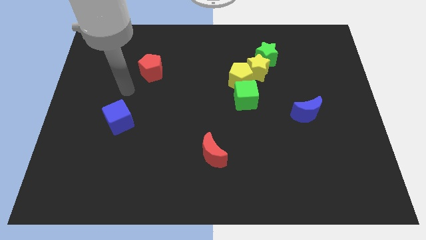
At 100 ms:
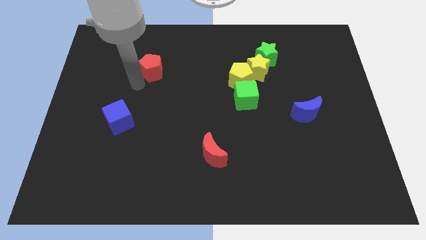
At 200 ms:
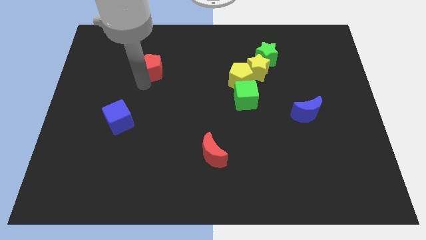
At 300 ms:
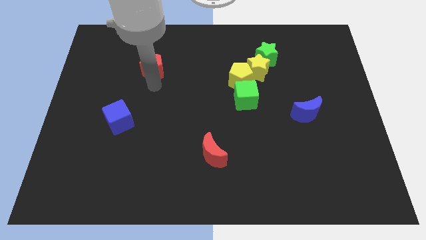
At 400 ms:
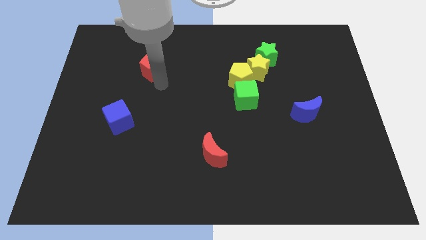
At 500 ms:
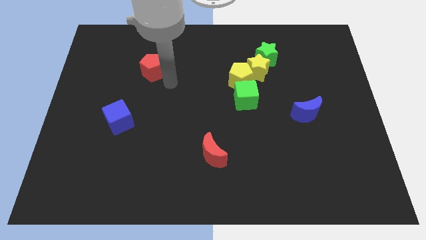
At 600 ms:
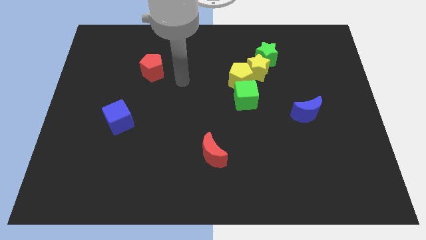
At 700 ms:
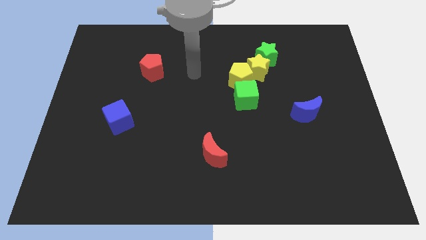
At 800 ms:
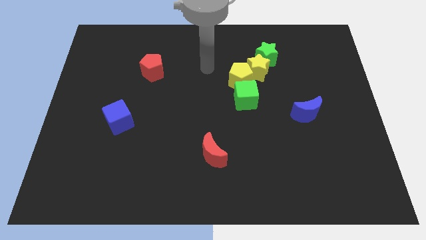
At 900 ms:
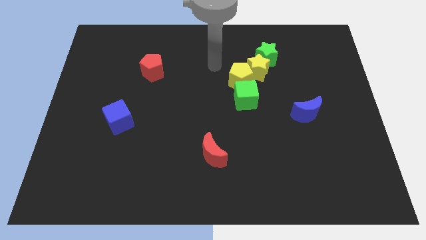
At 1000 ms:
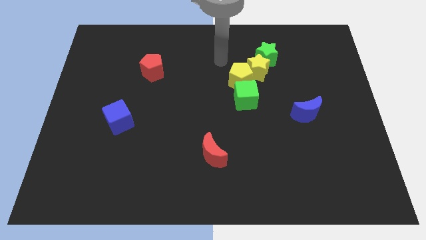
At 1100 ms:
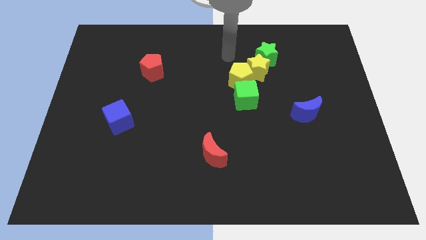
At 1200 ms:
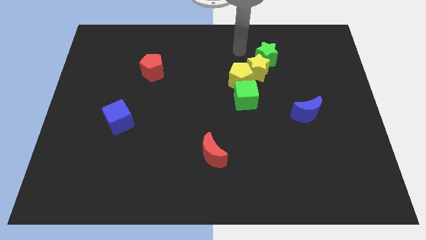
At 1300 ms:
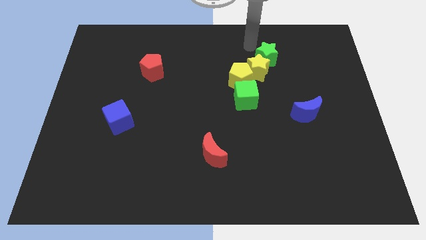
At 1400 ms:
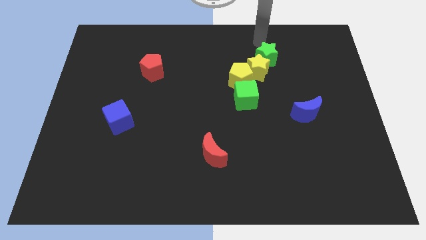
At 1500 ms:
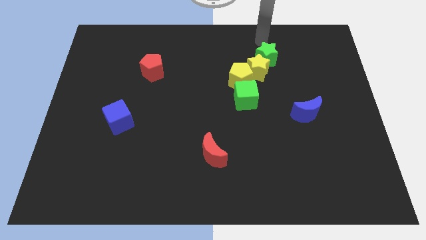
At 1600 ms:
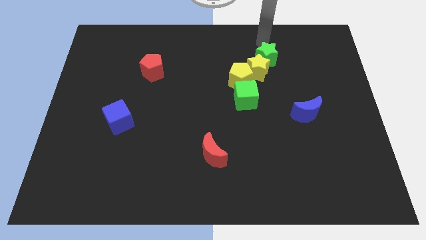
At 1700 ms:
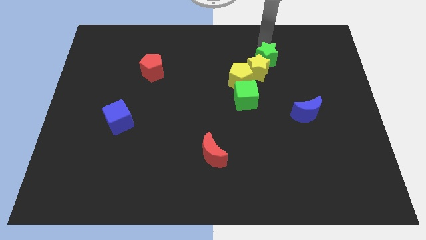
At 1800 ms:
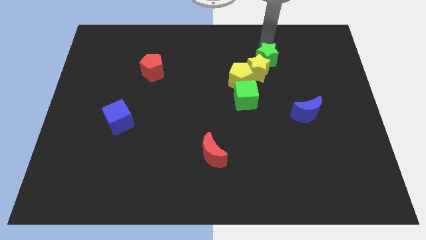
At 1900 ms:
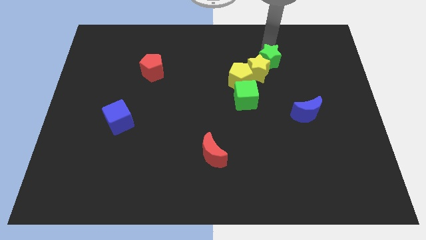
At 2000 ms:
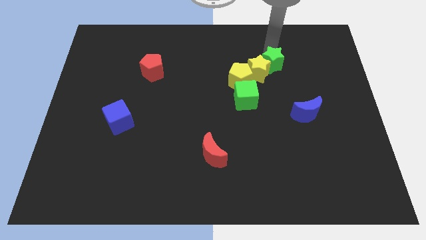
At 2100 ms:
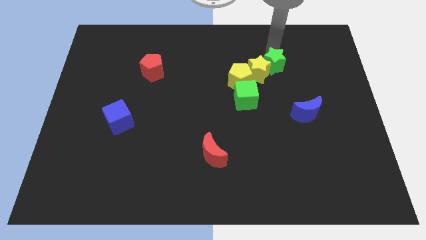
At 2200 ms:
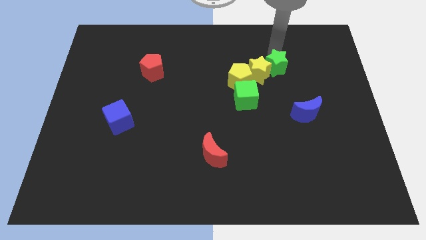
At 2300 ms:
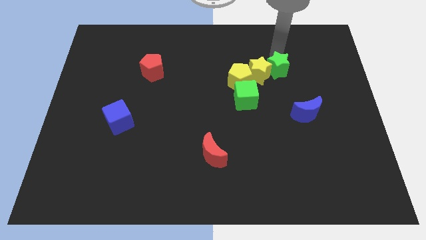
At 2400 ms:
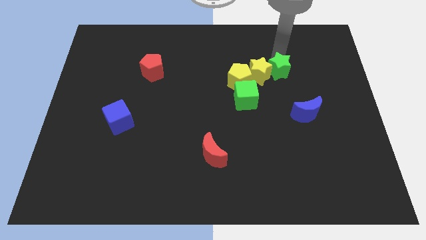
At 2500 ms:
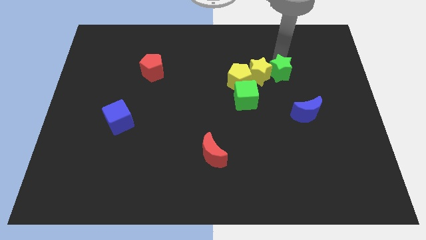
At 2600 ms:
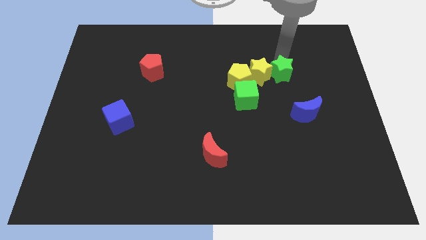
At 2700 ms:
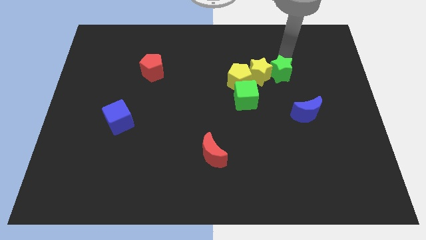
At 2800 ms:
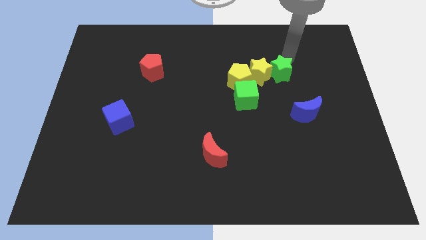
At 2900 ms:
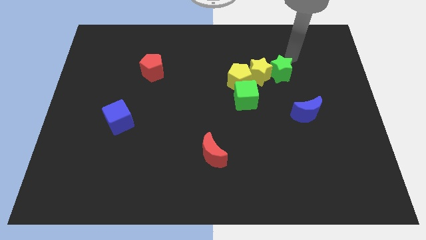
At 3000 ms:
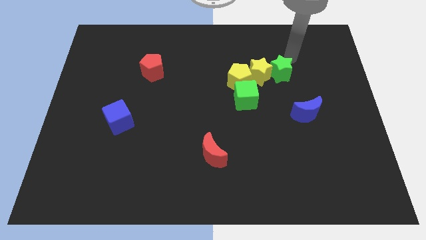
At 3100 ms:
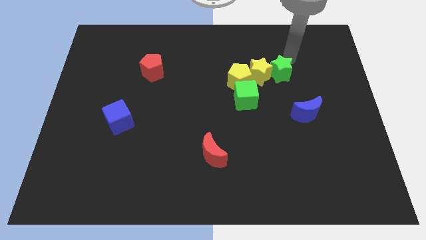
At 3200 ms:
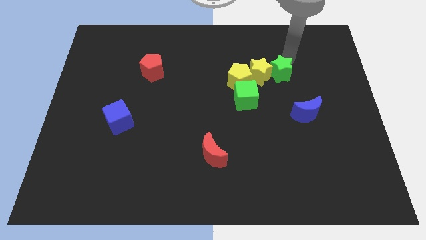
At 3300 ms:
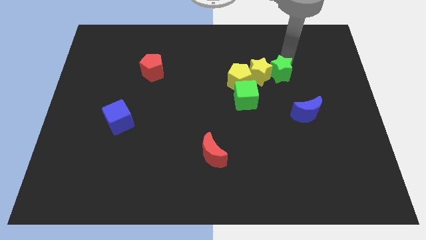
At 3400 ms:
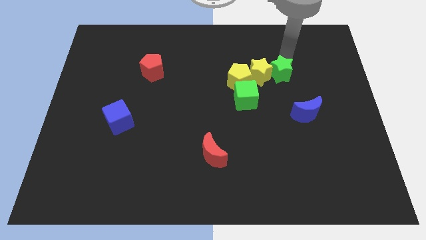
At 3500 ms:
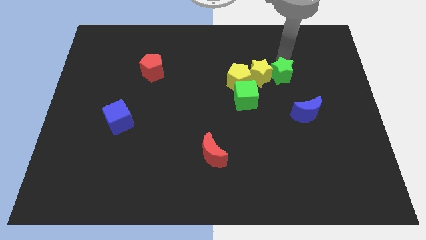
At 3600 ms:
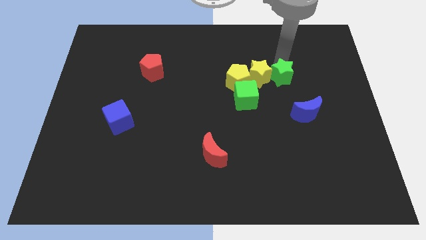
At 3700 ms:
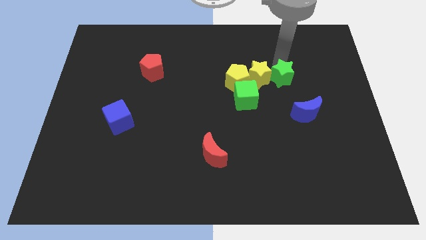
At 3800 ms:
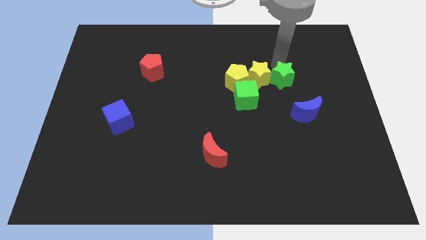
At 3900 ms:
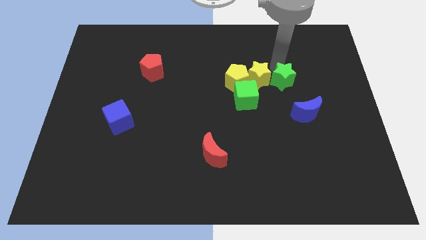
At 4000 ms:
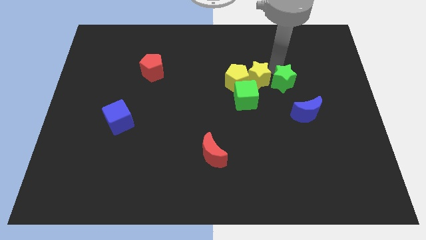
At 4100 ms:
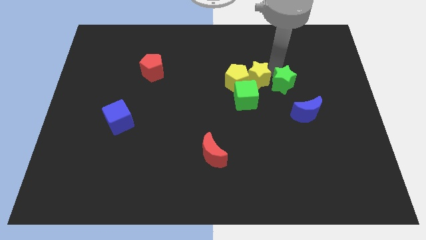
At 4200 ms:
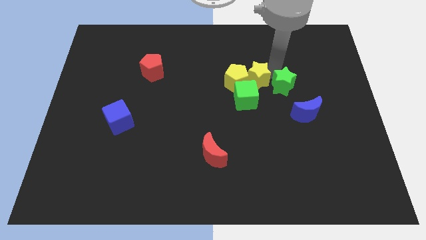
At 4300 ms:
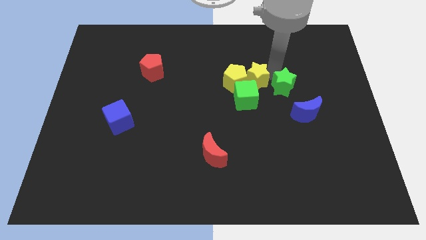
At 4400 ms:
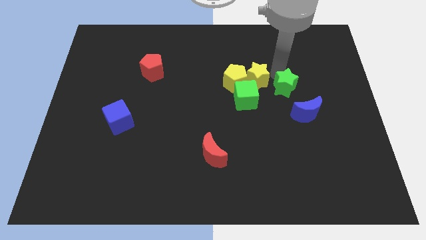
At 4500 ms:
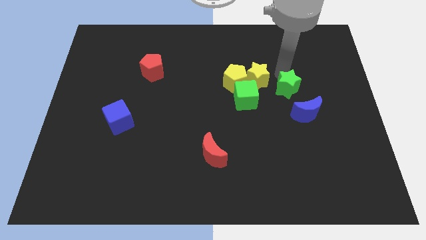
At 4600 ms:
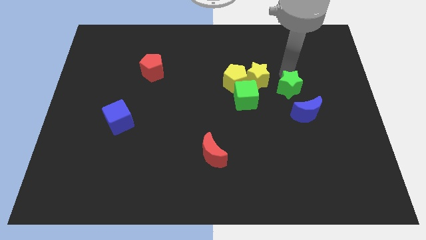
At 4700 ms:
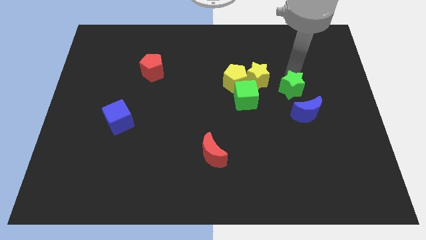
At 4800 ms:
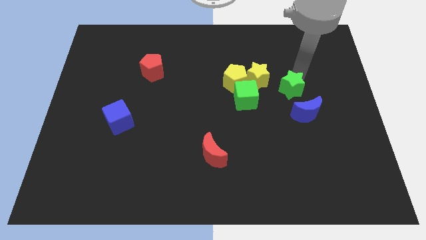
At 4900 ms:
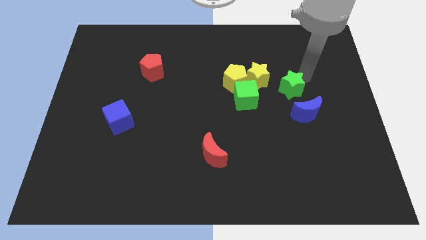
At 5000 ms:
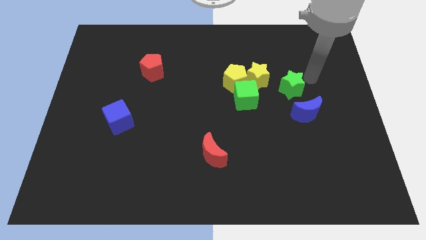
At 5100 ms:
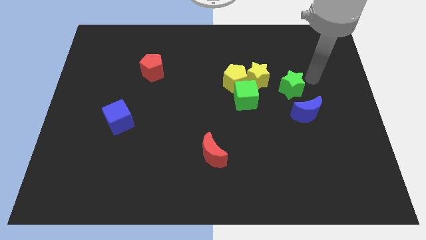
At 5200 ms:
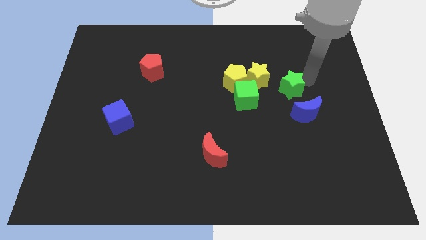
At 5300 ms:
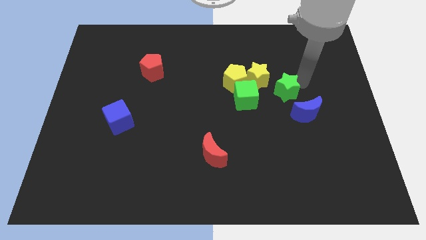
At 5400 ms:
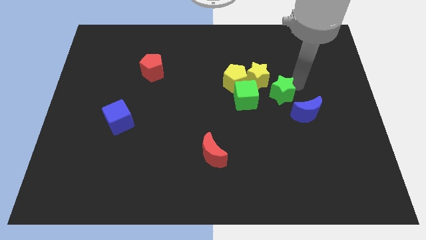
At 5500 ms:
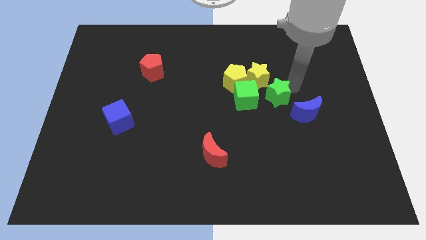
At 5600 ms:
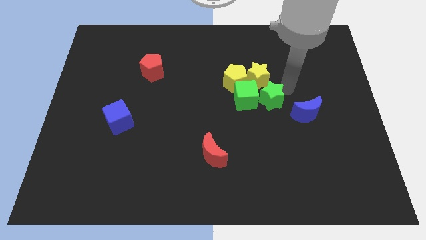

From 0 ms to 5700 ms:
move the green star left of the blue moon

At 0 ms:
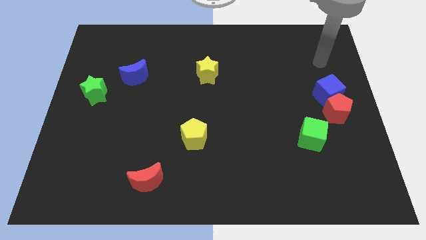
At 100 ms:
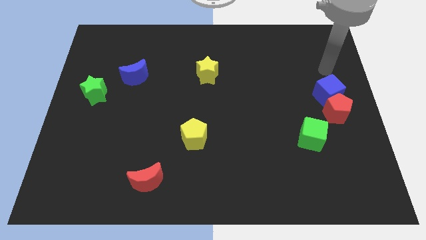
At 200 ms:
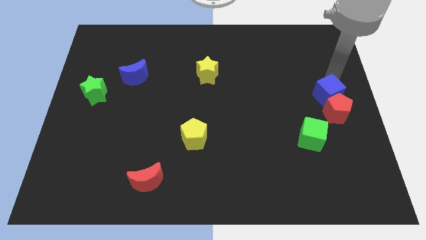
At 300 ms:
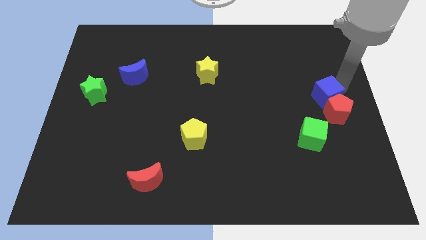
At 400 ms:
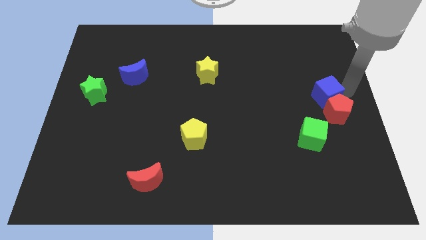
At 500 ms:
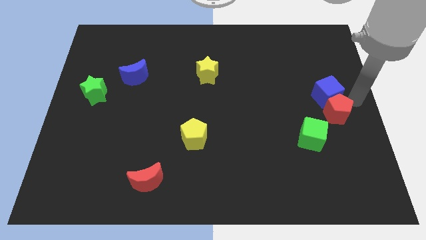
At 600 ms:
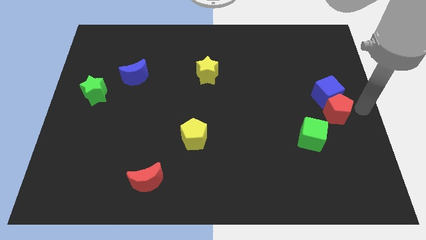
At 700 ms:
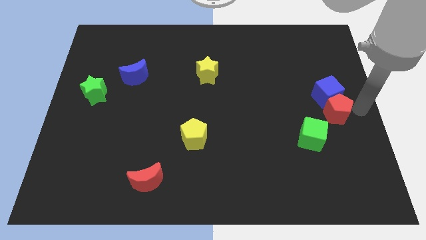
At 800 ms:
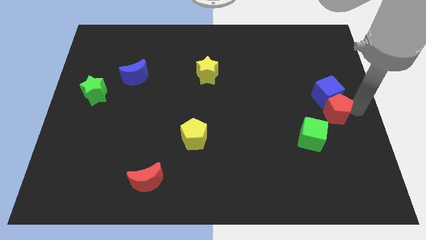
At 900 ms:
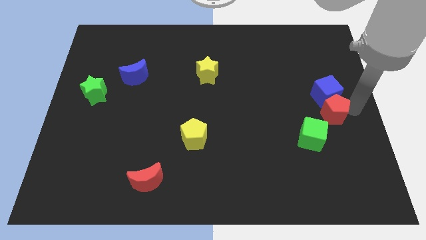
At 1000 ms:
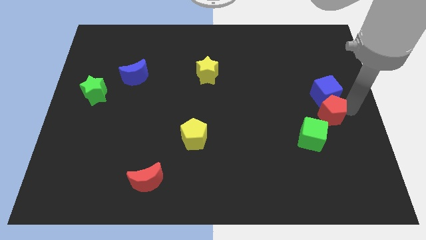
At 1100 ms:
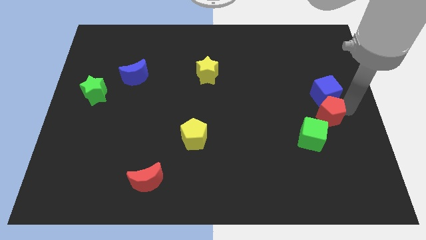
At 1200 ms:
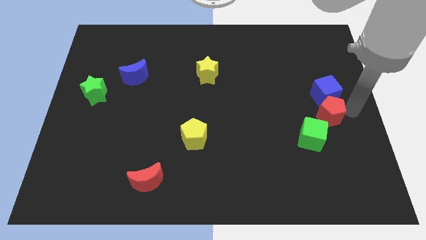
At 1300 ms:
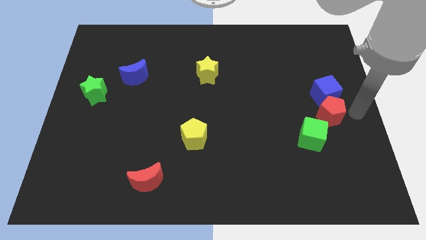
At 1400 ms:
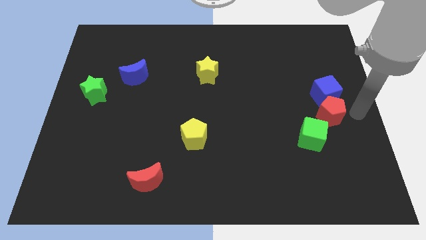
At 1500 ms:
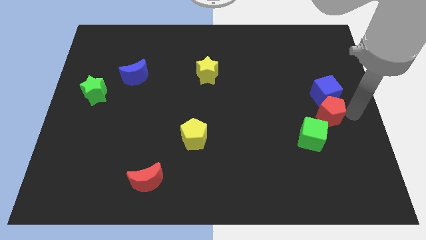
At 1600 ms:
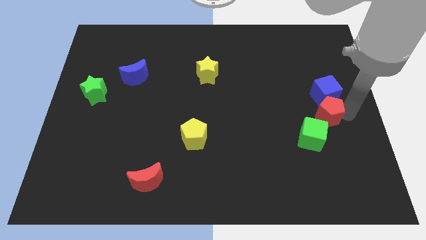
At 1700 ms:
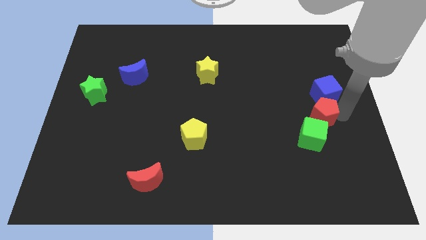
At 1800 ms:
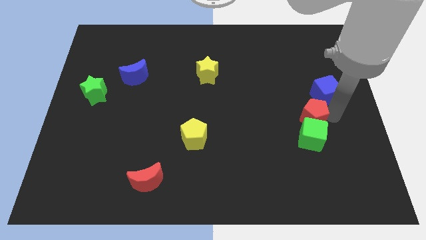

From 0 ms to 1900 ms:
push the red pentagon to the top left side of the green cube
